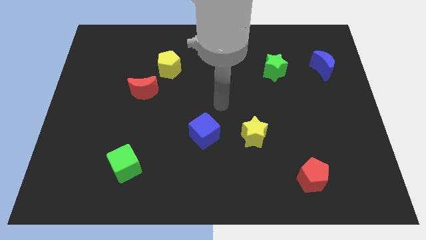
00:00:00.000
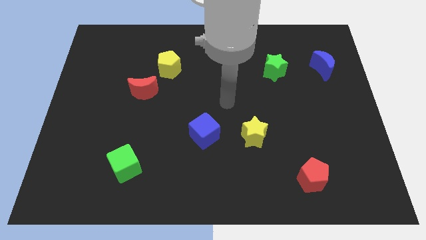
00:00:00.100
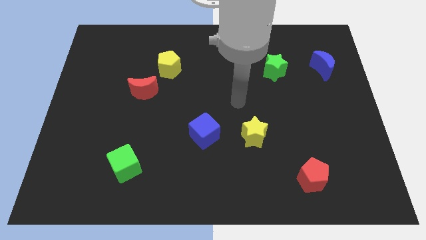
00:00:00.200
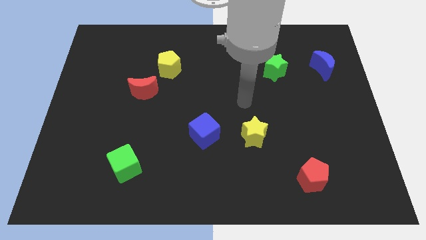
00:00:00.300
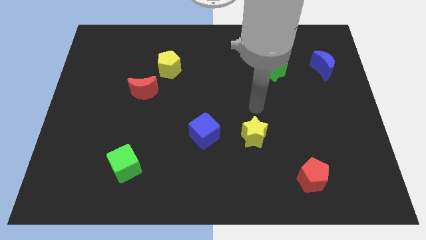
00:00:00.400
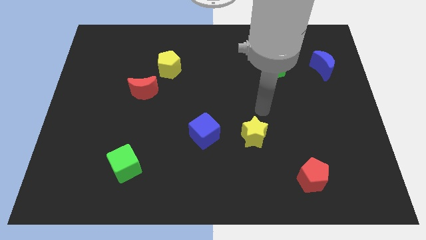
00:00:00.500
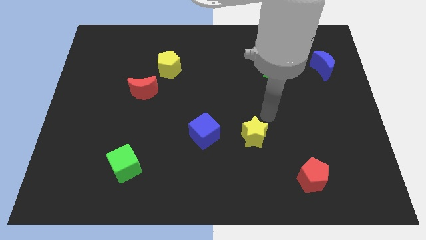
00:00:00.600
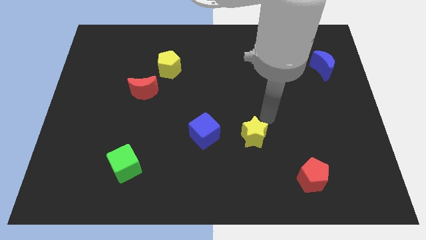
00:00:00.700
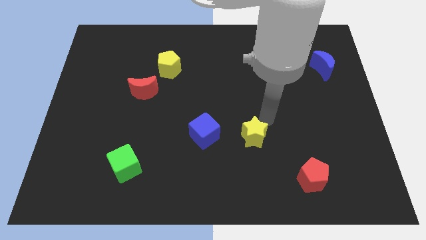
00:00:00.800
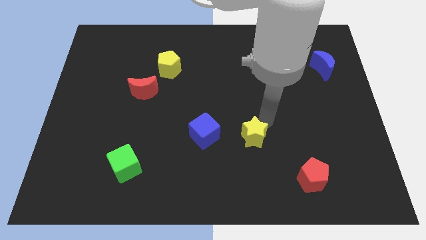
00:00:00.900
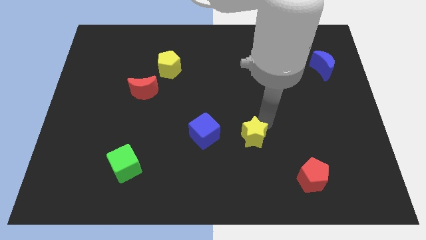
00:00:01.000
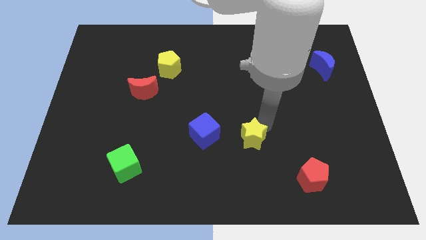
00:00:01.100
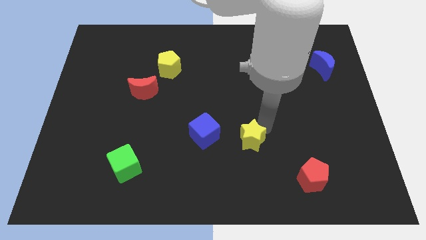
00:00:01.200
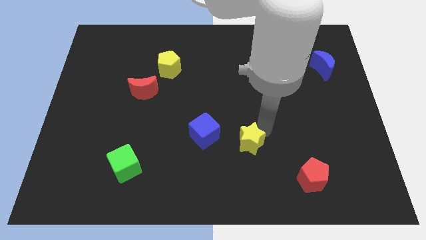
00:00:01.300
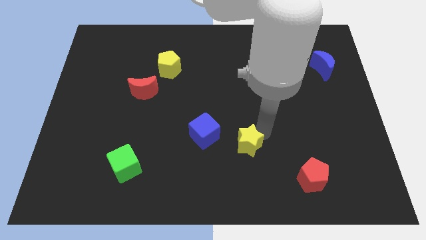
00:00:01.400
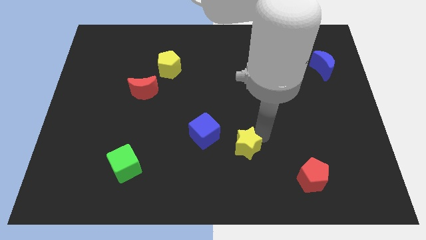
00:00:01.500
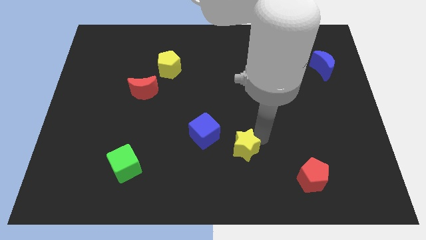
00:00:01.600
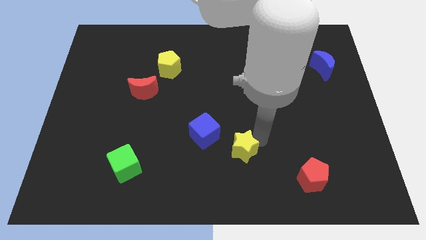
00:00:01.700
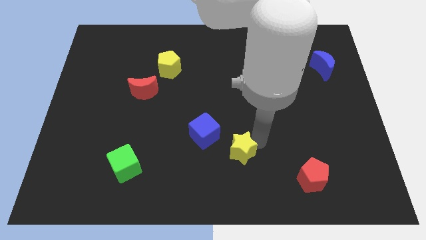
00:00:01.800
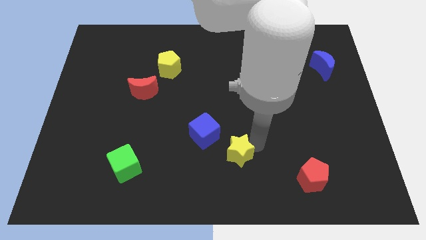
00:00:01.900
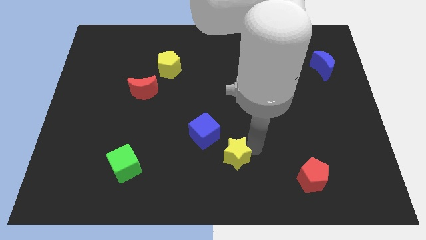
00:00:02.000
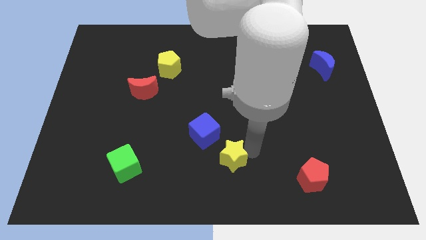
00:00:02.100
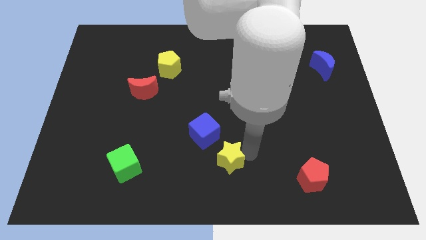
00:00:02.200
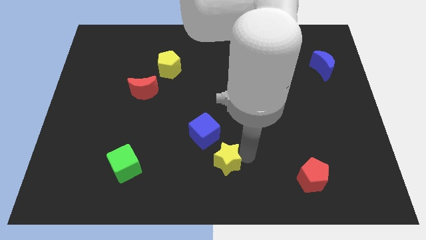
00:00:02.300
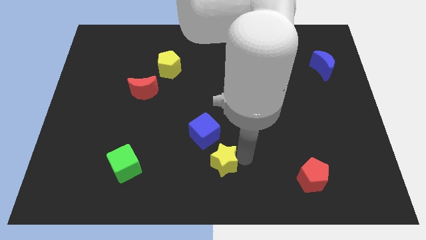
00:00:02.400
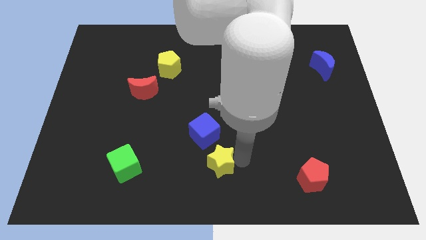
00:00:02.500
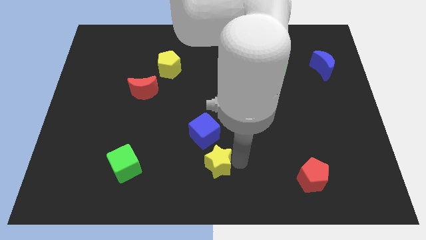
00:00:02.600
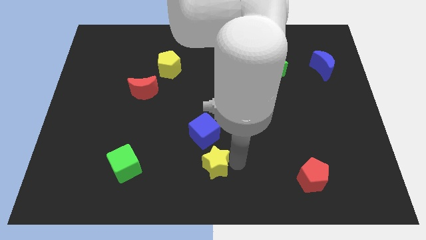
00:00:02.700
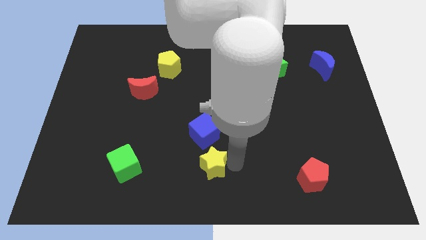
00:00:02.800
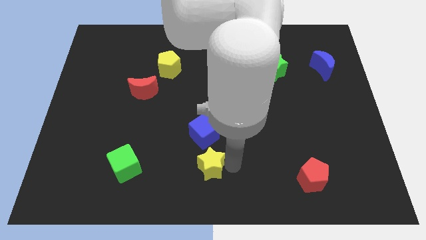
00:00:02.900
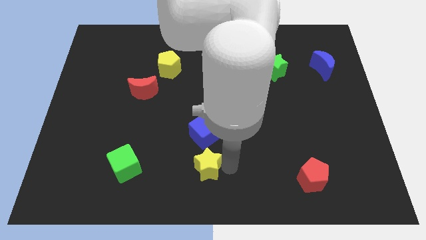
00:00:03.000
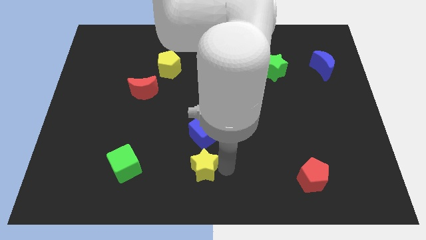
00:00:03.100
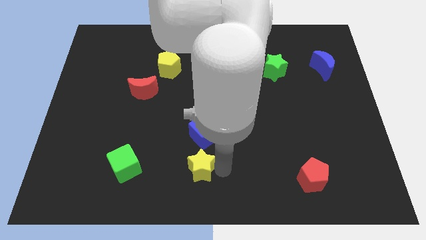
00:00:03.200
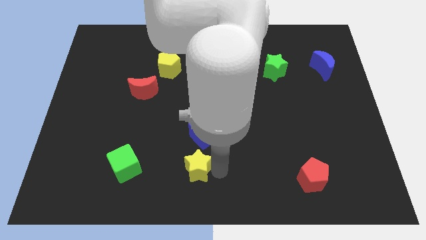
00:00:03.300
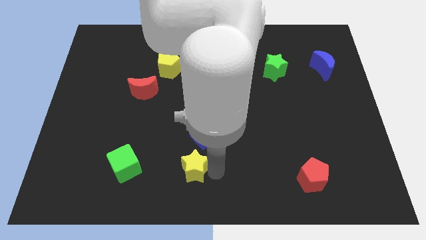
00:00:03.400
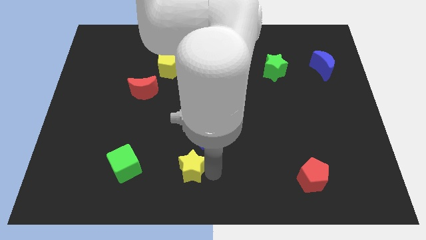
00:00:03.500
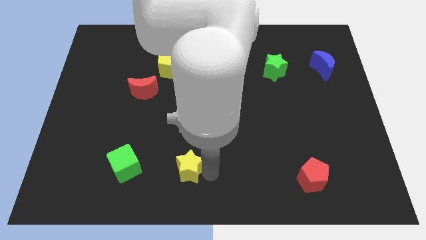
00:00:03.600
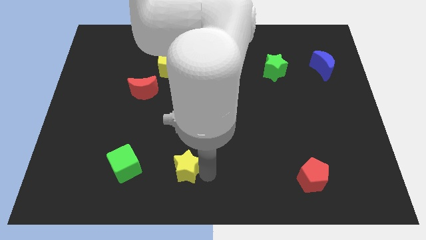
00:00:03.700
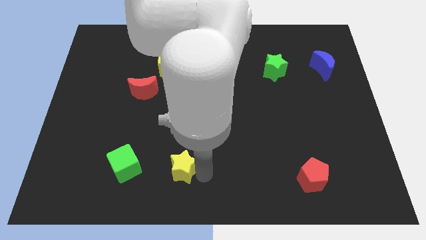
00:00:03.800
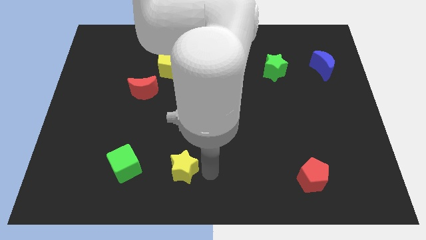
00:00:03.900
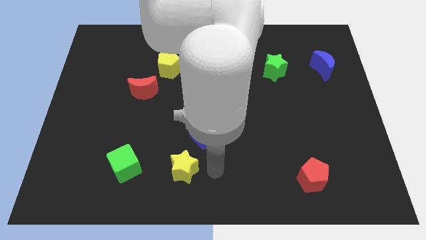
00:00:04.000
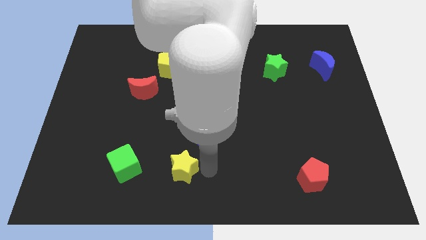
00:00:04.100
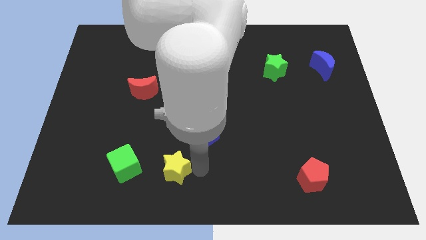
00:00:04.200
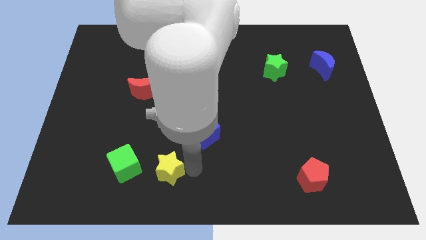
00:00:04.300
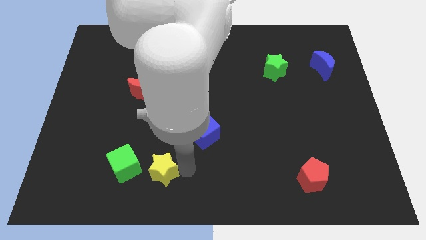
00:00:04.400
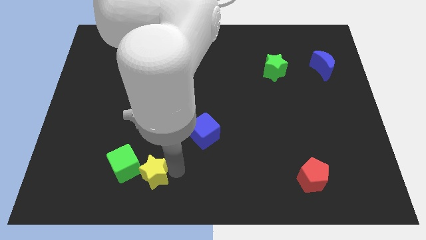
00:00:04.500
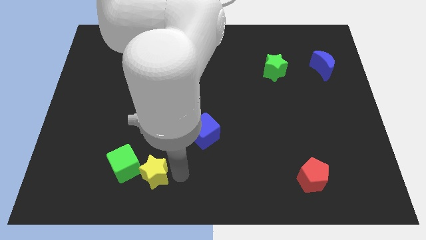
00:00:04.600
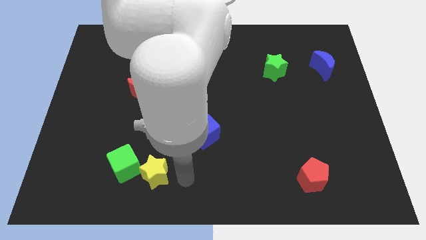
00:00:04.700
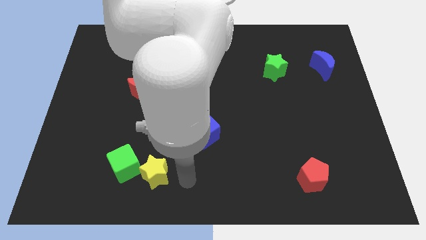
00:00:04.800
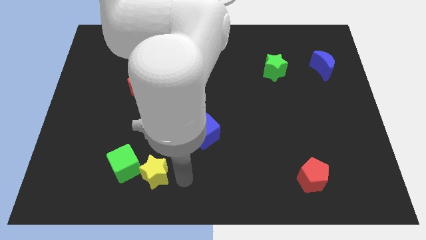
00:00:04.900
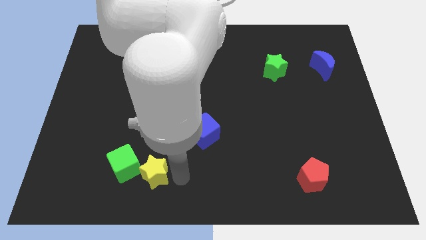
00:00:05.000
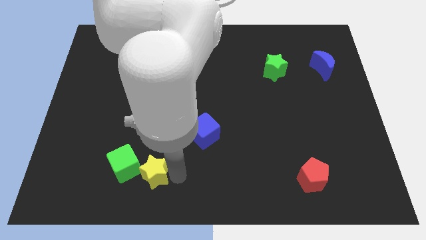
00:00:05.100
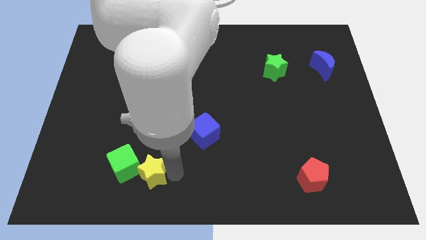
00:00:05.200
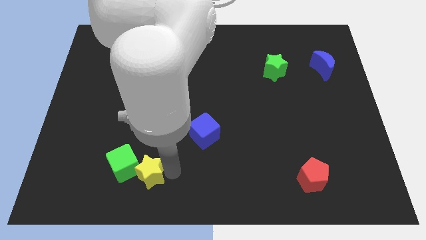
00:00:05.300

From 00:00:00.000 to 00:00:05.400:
push the yellow star to the green cube

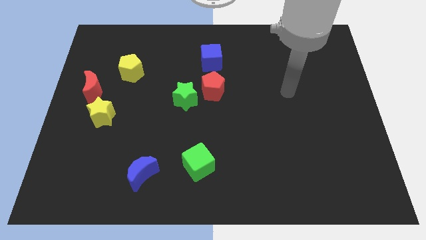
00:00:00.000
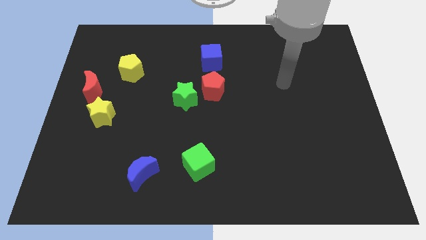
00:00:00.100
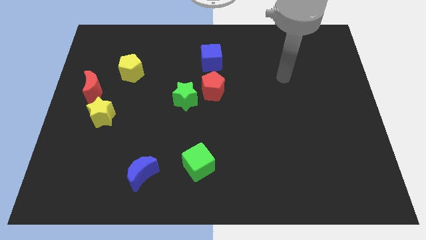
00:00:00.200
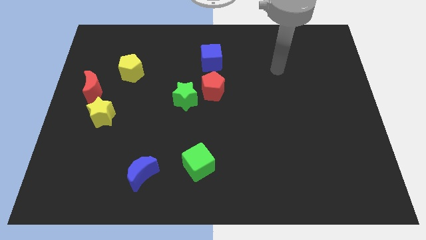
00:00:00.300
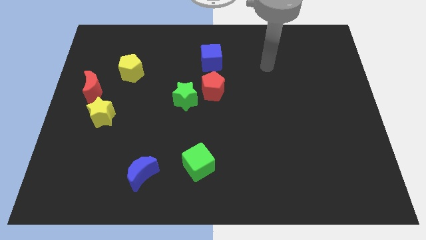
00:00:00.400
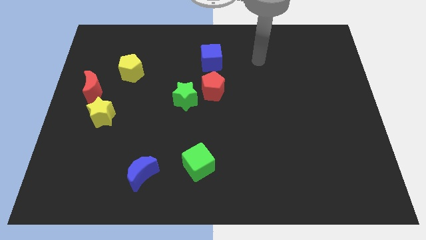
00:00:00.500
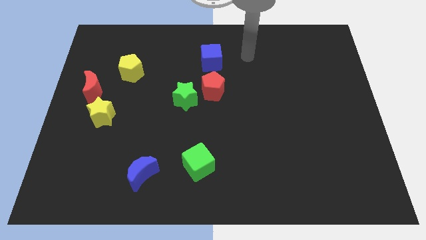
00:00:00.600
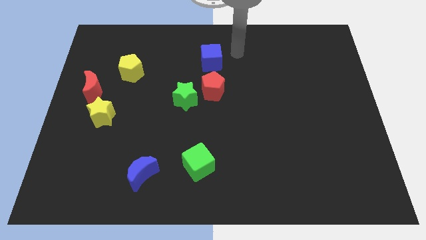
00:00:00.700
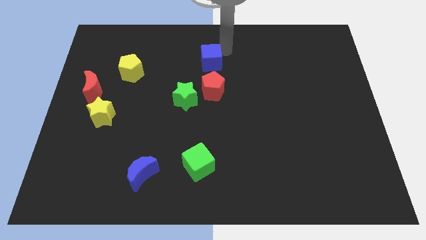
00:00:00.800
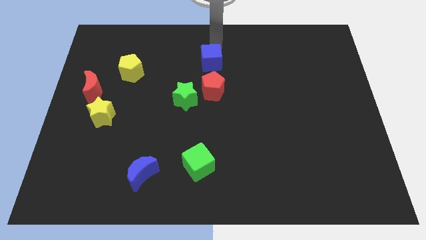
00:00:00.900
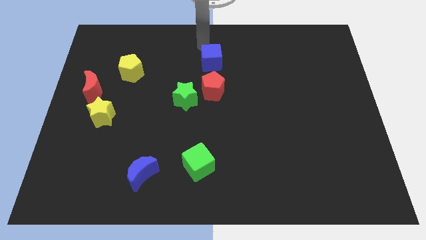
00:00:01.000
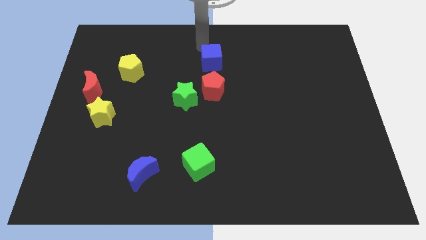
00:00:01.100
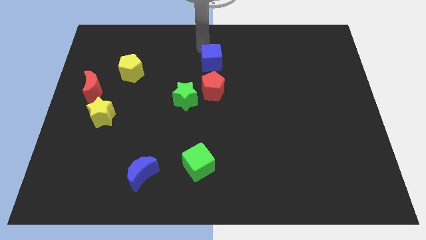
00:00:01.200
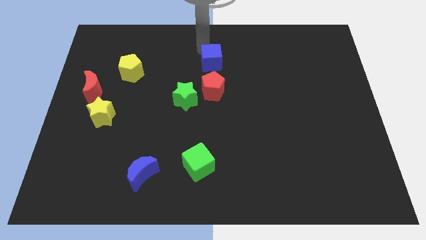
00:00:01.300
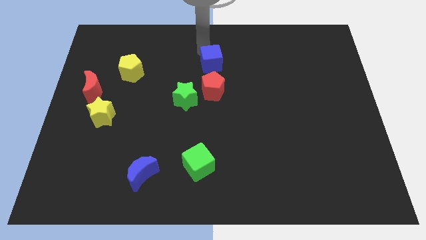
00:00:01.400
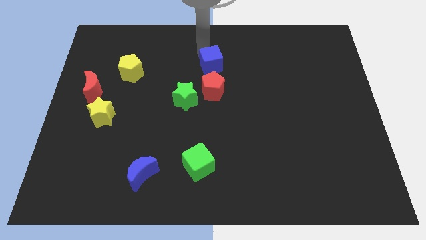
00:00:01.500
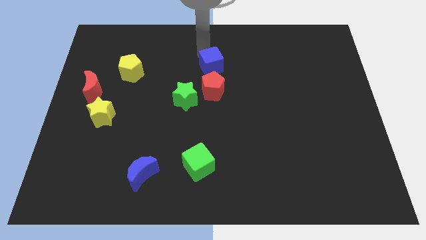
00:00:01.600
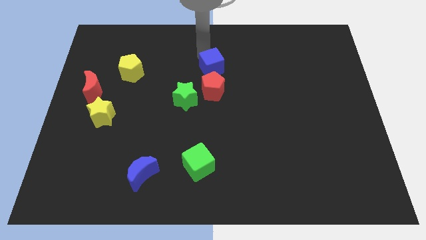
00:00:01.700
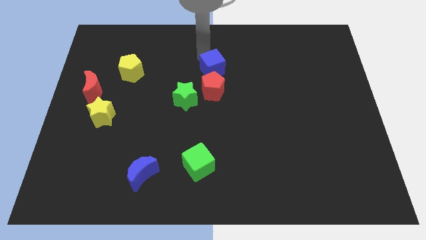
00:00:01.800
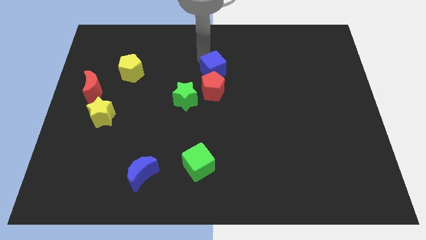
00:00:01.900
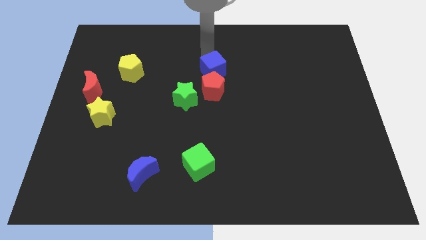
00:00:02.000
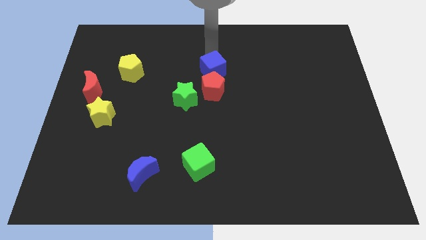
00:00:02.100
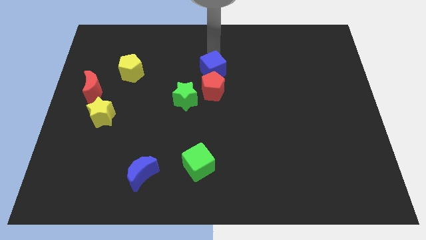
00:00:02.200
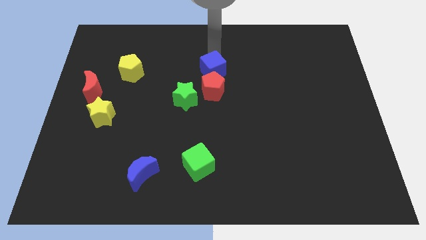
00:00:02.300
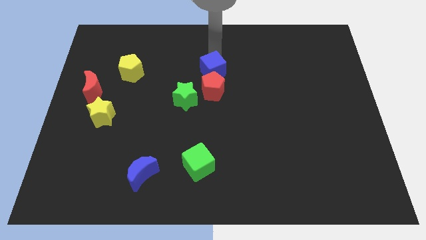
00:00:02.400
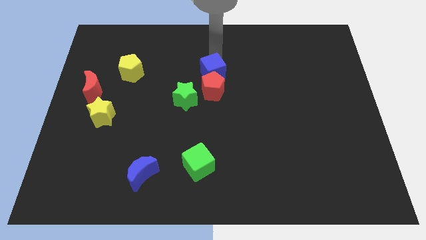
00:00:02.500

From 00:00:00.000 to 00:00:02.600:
put the blue cube close to the red pentagon
